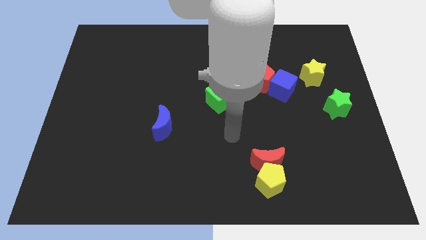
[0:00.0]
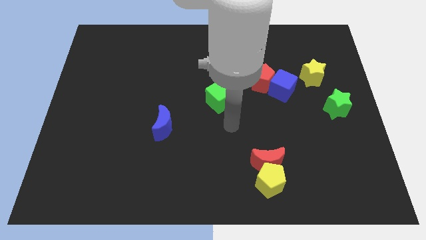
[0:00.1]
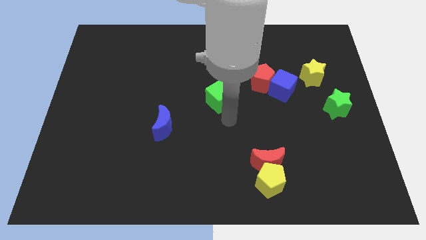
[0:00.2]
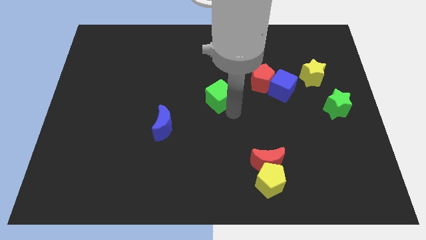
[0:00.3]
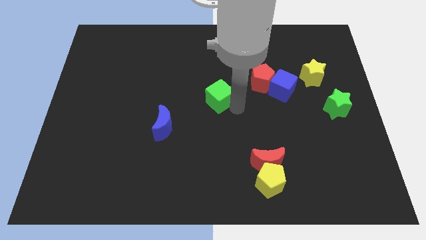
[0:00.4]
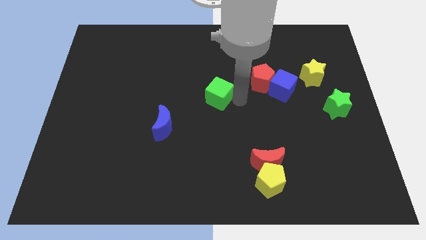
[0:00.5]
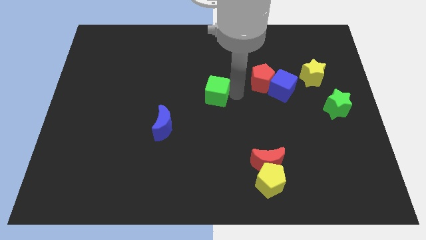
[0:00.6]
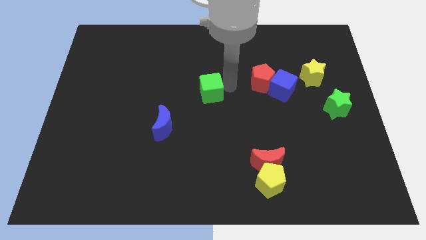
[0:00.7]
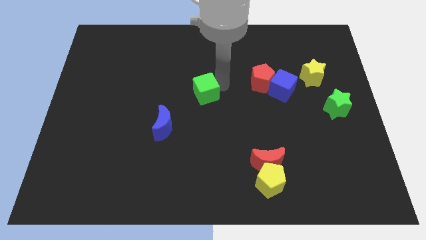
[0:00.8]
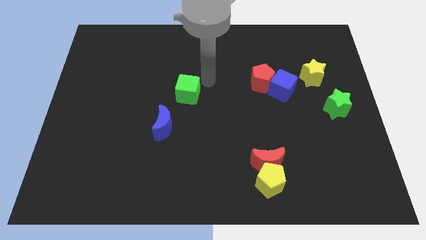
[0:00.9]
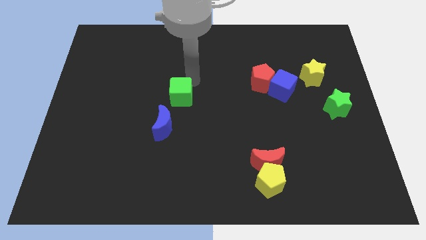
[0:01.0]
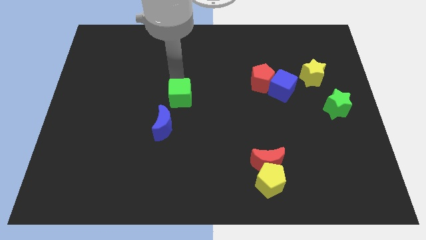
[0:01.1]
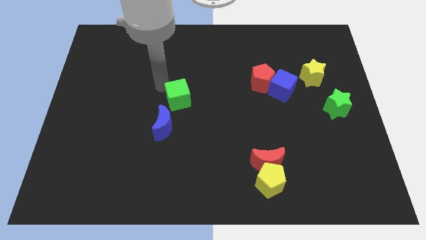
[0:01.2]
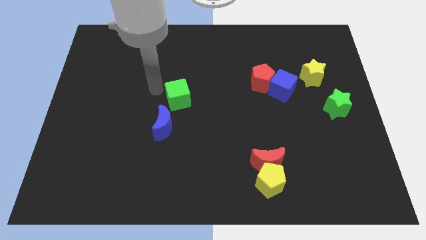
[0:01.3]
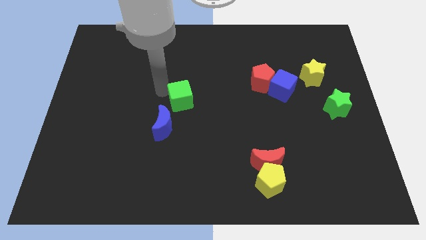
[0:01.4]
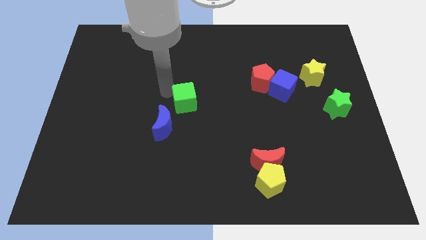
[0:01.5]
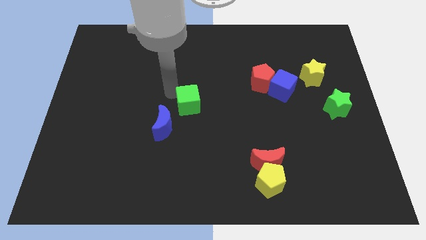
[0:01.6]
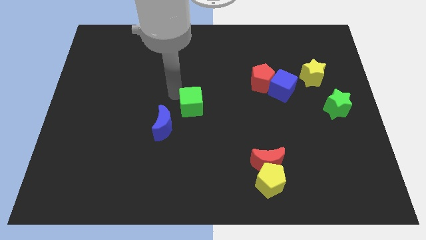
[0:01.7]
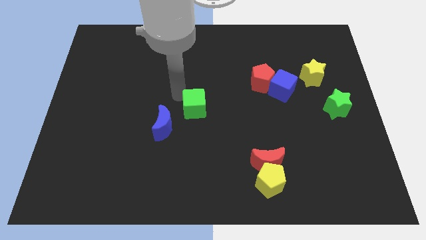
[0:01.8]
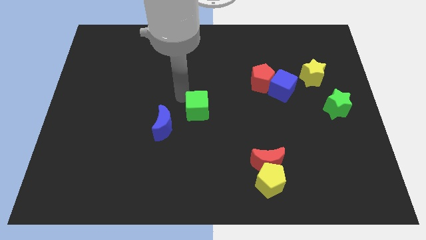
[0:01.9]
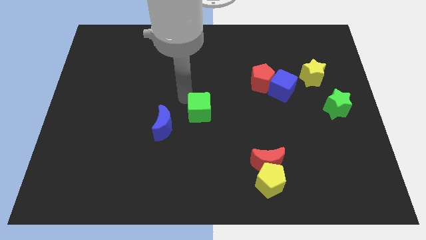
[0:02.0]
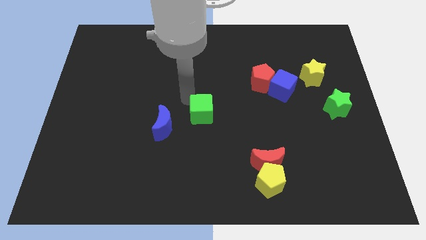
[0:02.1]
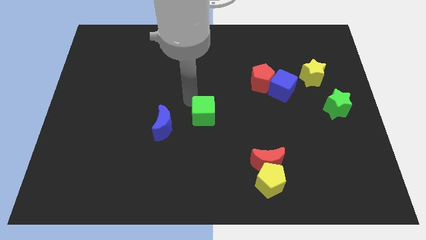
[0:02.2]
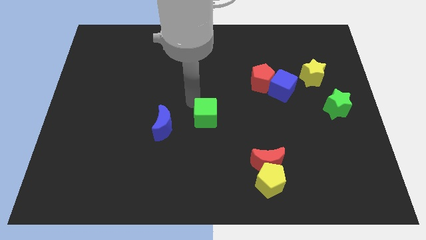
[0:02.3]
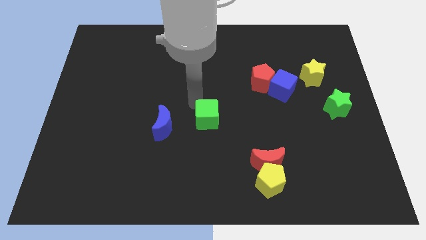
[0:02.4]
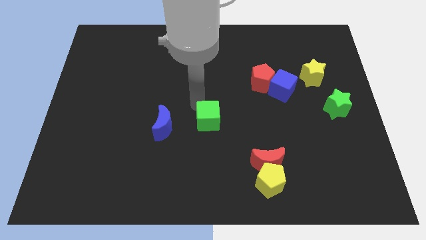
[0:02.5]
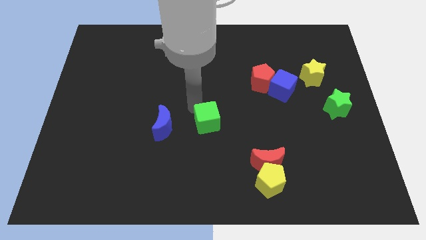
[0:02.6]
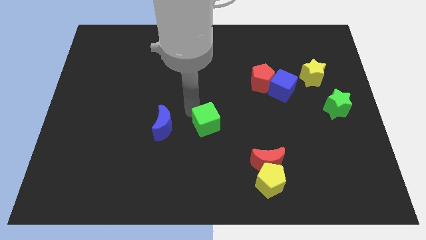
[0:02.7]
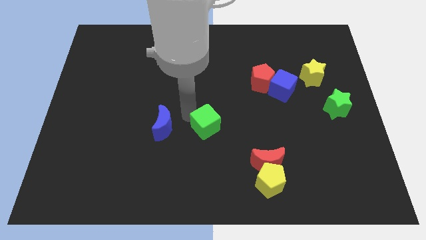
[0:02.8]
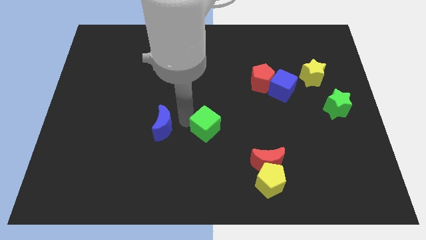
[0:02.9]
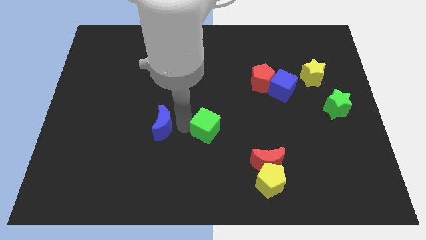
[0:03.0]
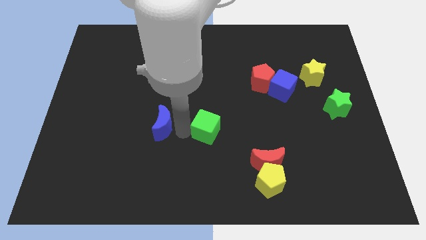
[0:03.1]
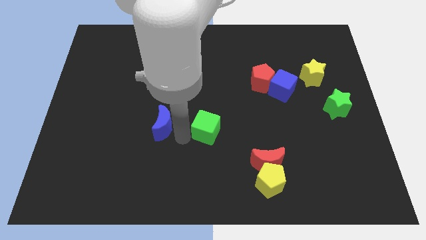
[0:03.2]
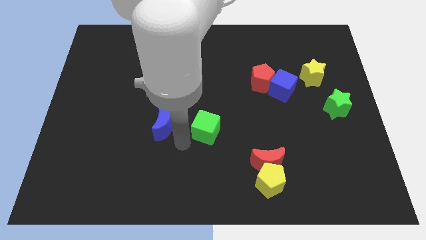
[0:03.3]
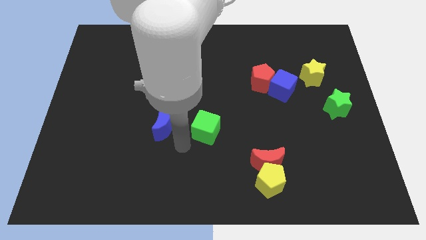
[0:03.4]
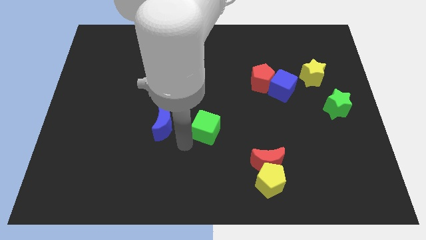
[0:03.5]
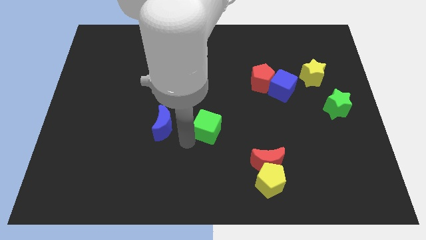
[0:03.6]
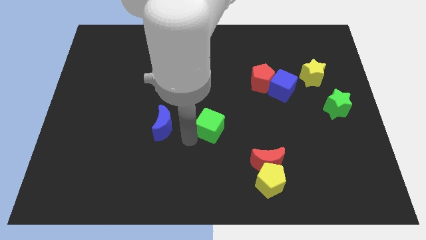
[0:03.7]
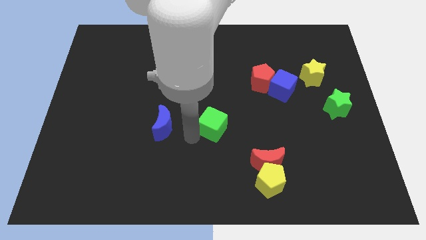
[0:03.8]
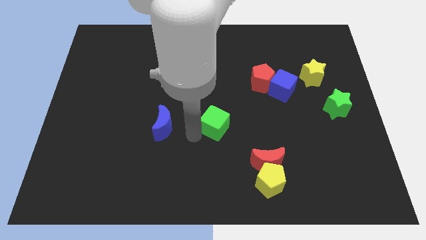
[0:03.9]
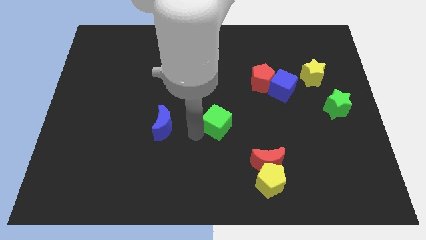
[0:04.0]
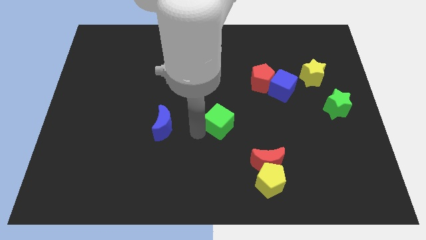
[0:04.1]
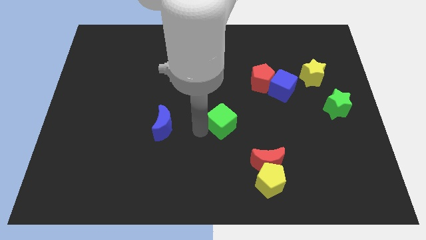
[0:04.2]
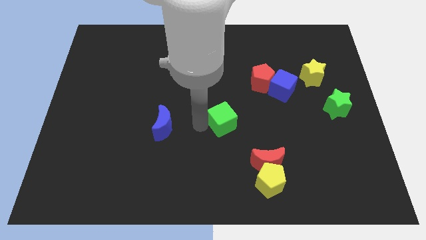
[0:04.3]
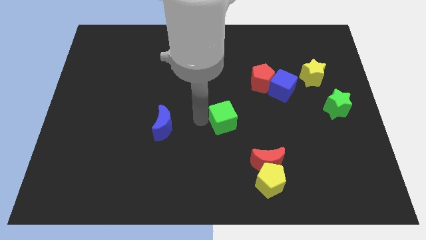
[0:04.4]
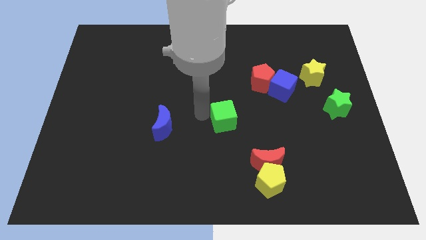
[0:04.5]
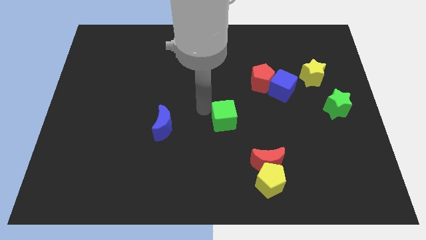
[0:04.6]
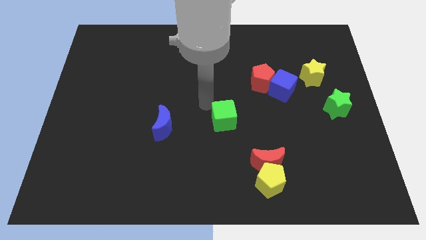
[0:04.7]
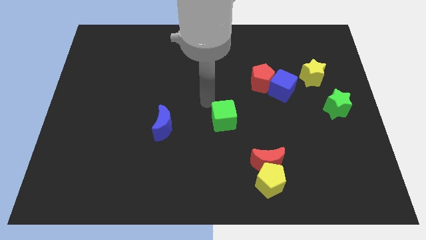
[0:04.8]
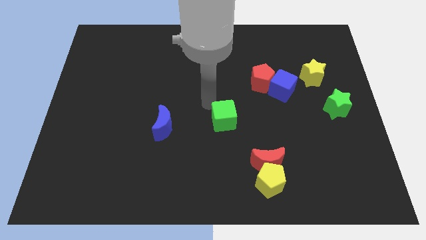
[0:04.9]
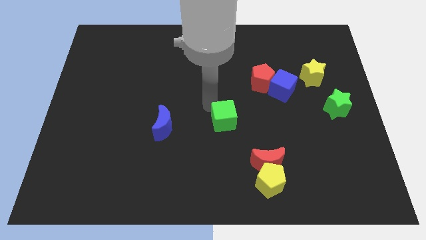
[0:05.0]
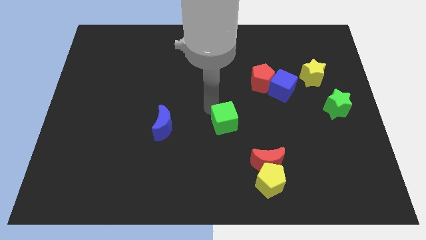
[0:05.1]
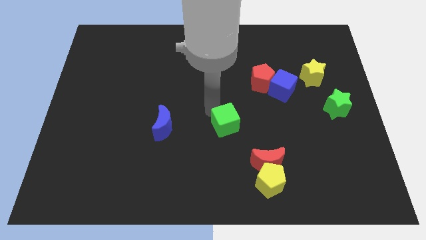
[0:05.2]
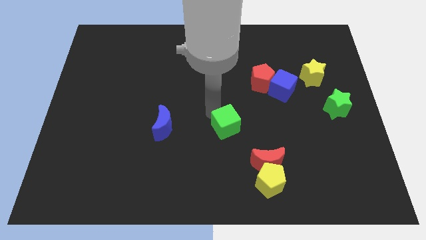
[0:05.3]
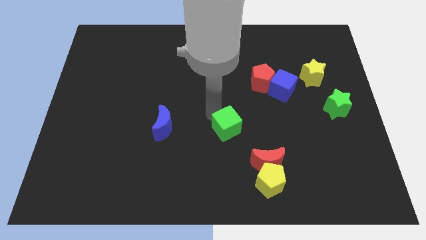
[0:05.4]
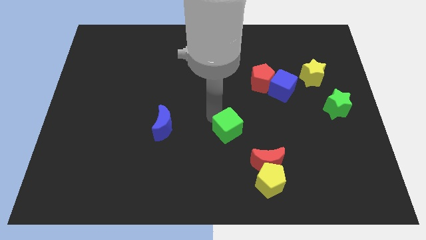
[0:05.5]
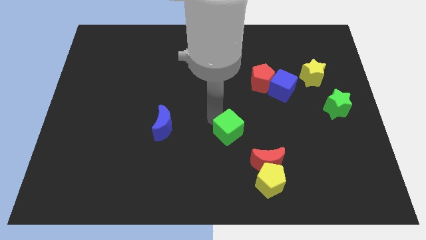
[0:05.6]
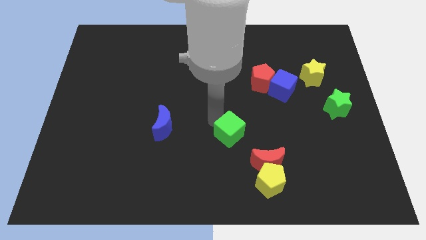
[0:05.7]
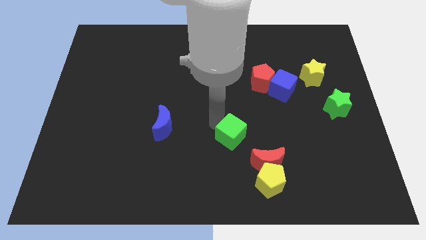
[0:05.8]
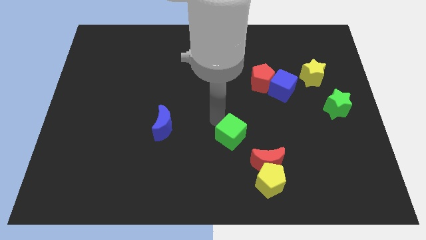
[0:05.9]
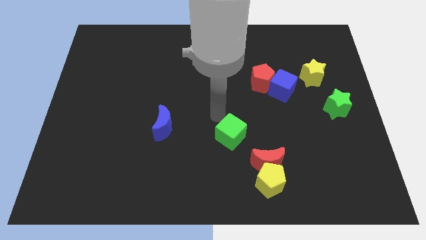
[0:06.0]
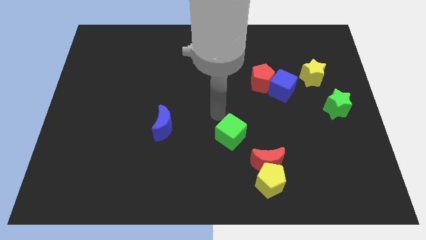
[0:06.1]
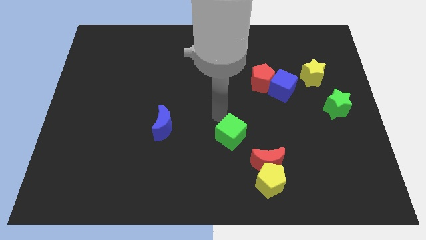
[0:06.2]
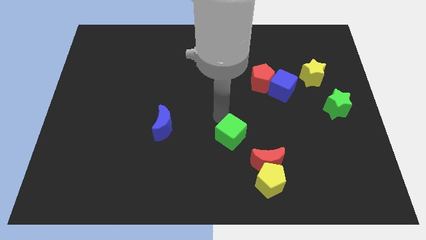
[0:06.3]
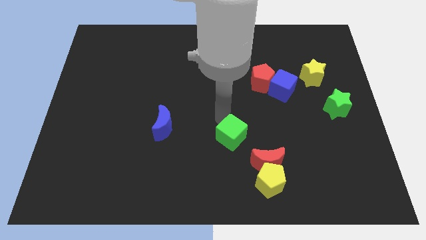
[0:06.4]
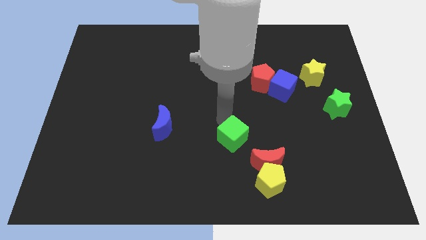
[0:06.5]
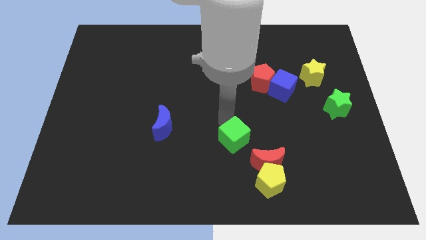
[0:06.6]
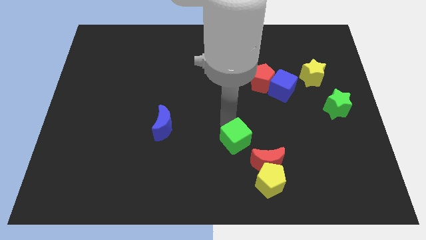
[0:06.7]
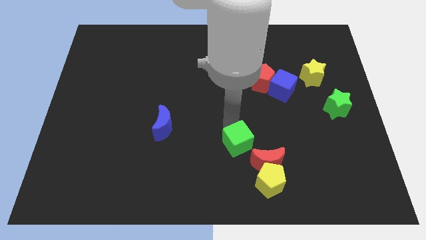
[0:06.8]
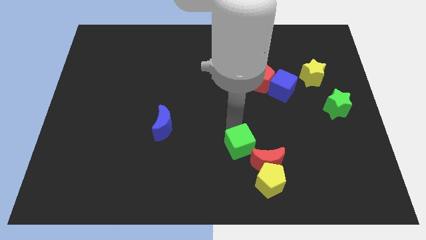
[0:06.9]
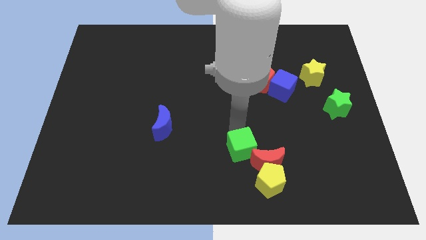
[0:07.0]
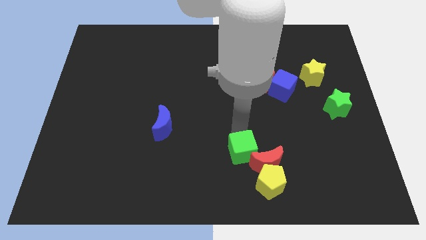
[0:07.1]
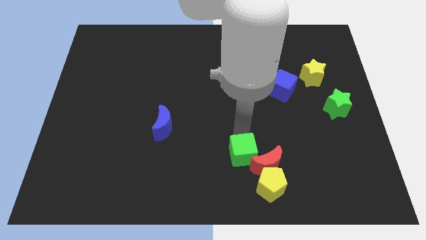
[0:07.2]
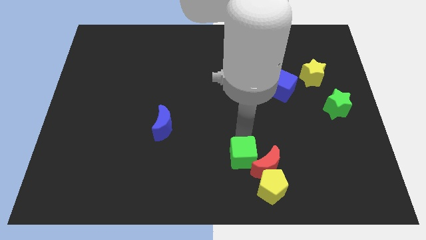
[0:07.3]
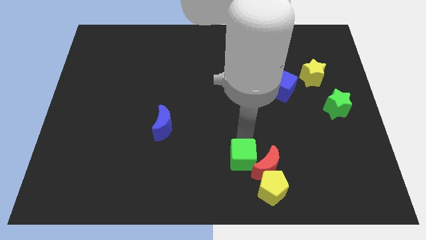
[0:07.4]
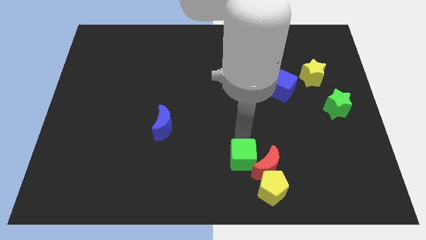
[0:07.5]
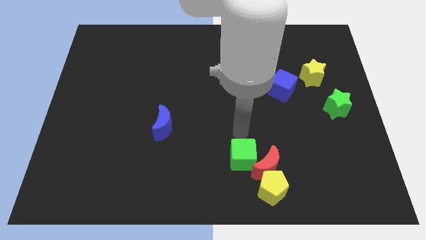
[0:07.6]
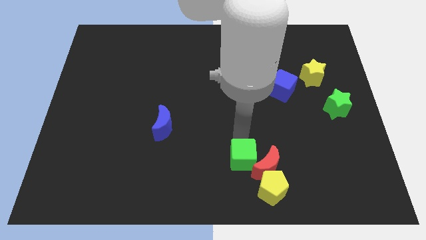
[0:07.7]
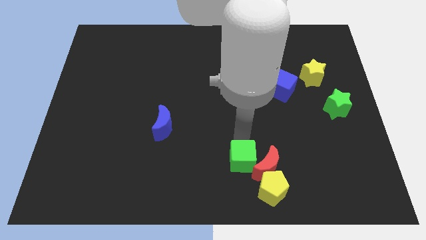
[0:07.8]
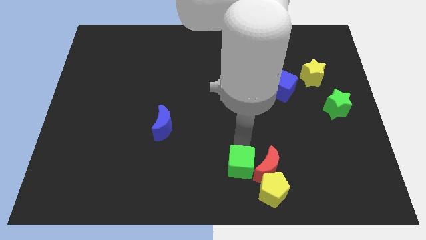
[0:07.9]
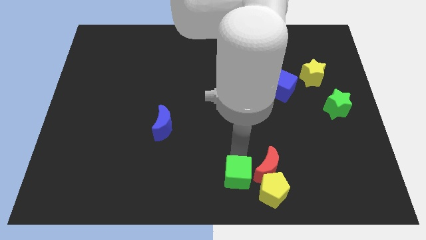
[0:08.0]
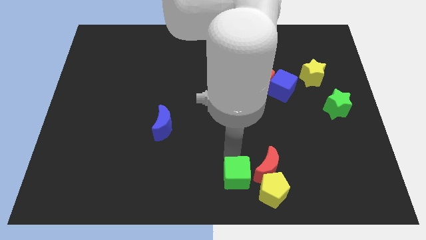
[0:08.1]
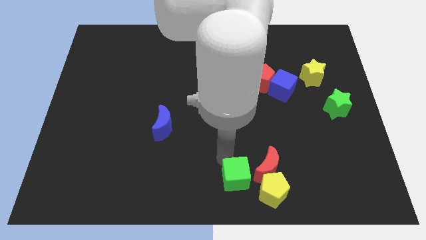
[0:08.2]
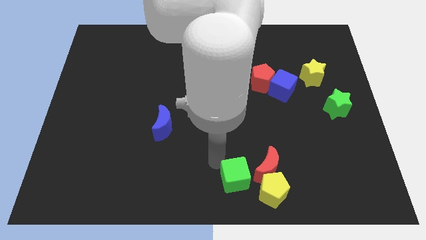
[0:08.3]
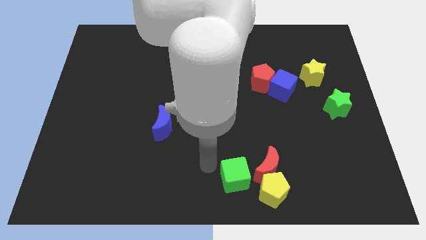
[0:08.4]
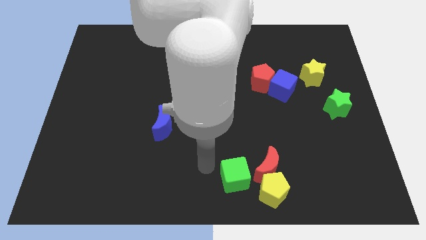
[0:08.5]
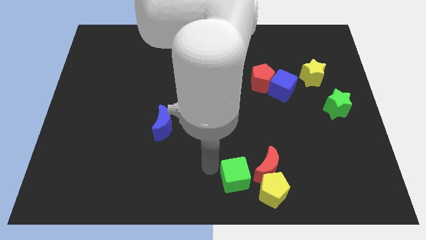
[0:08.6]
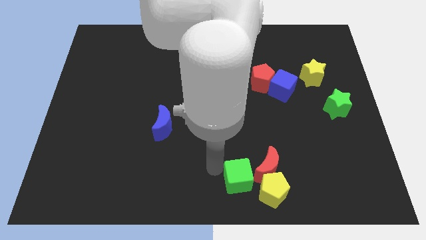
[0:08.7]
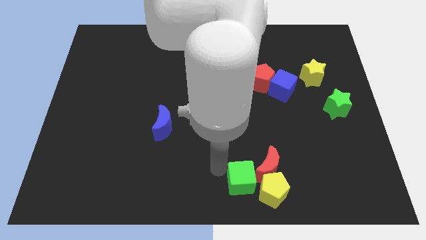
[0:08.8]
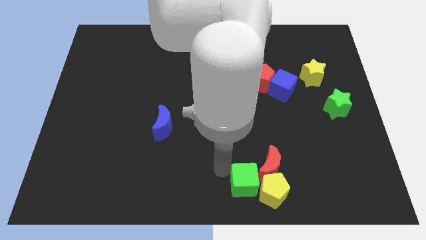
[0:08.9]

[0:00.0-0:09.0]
put the green cube towards the yellow pentagon
